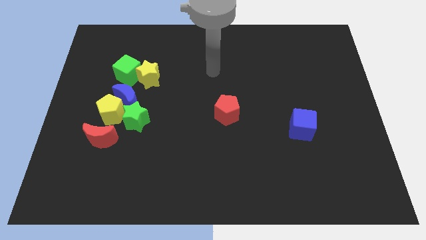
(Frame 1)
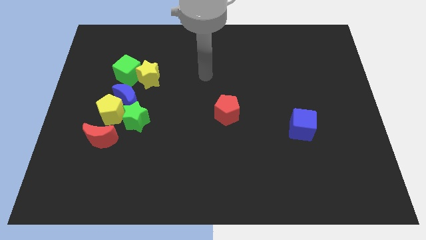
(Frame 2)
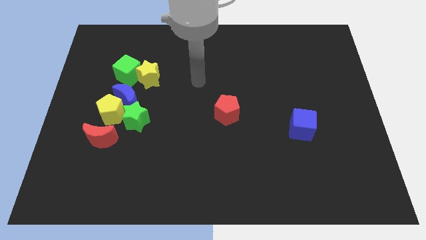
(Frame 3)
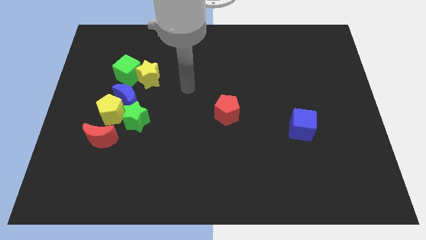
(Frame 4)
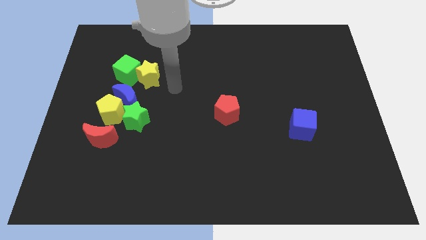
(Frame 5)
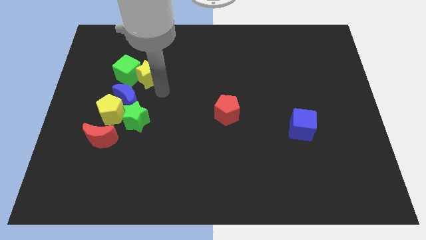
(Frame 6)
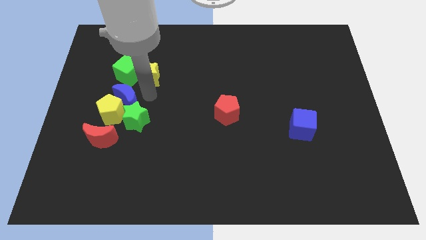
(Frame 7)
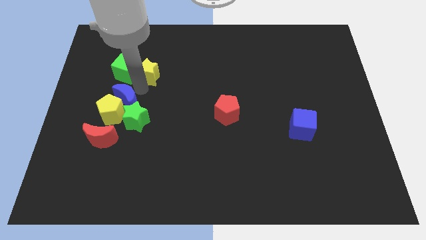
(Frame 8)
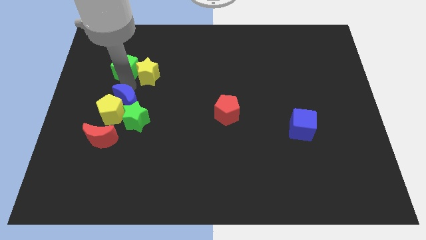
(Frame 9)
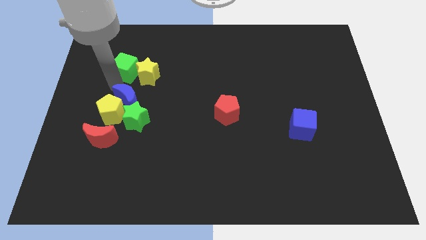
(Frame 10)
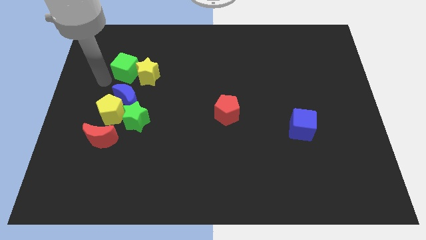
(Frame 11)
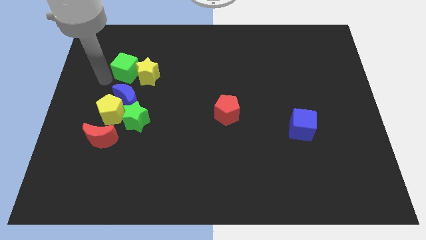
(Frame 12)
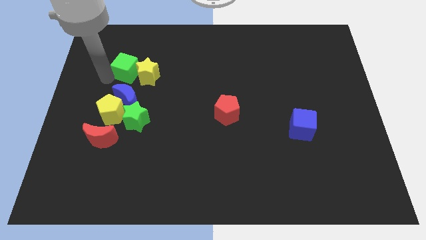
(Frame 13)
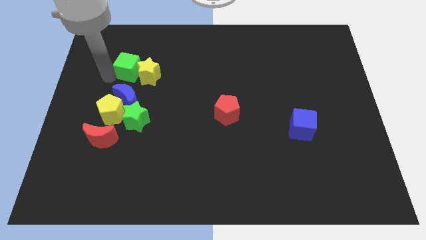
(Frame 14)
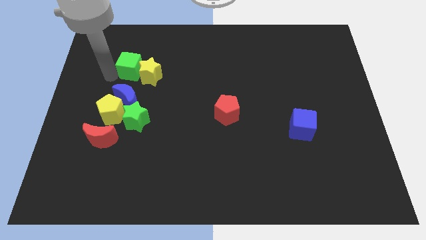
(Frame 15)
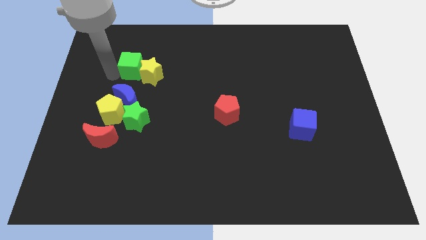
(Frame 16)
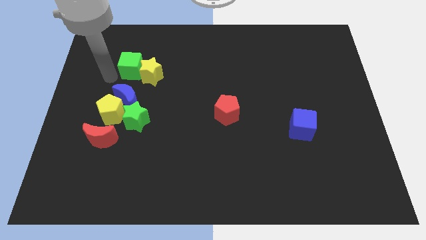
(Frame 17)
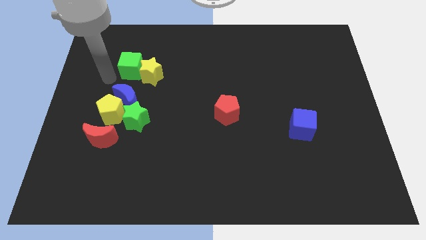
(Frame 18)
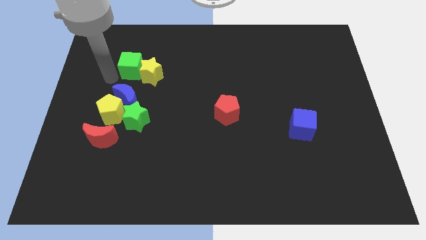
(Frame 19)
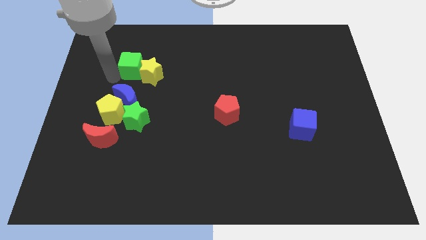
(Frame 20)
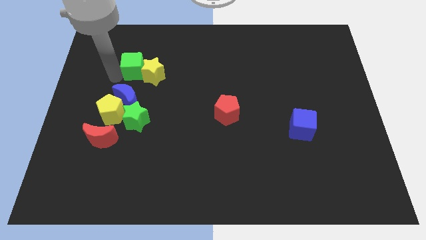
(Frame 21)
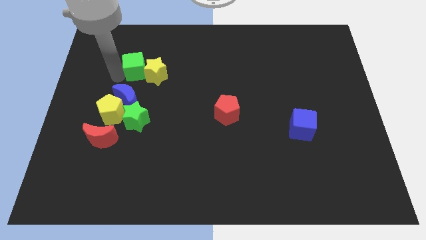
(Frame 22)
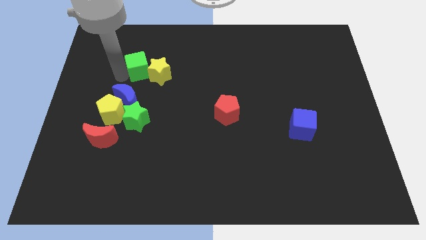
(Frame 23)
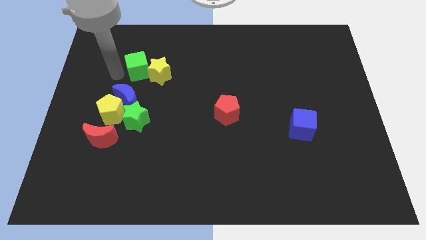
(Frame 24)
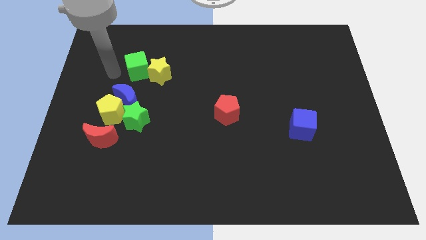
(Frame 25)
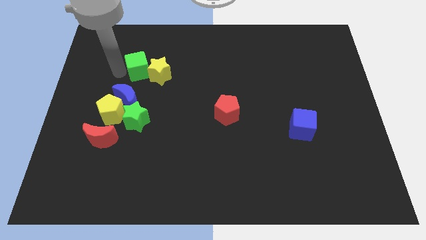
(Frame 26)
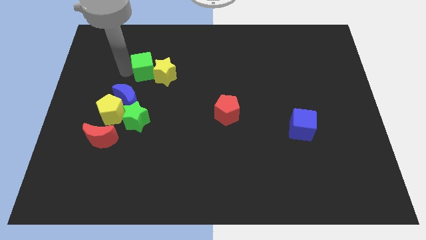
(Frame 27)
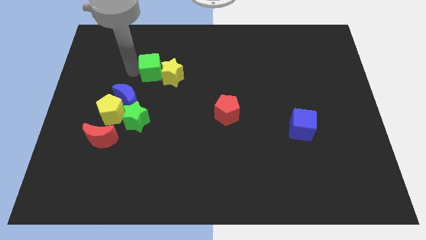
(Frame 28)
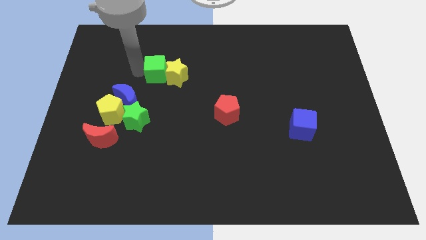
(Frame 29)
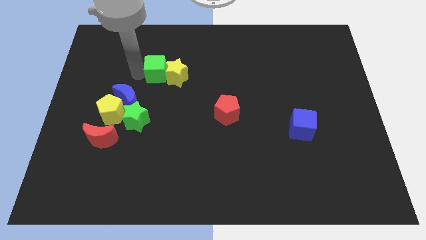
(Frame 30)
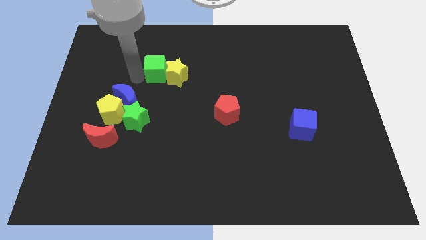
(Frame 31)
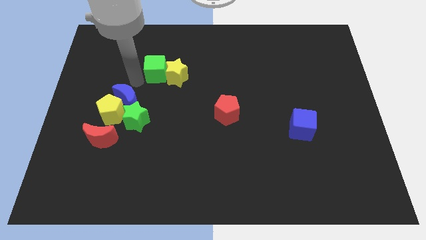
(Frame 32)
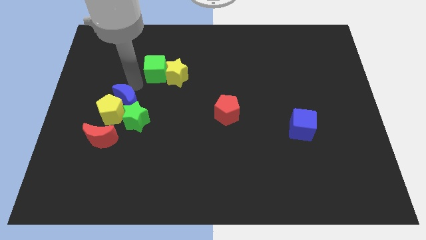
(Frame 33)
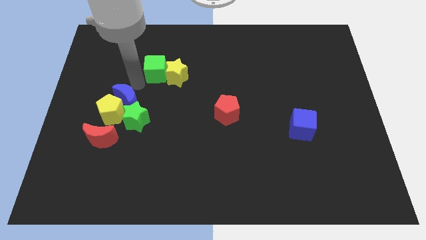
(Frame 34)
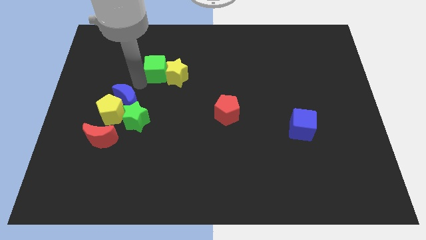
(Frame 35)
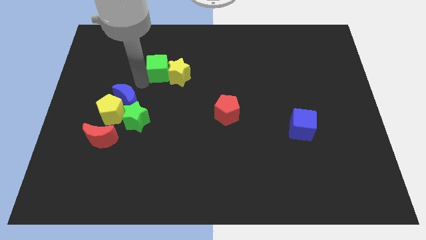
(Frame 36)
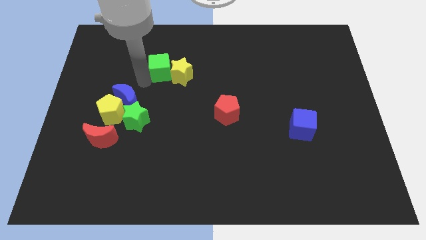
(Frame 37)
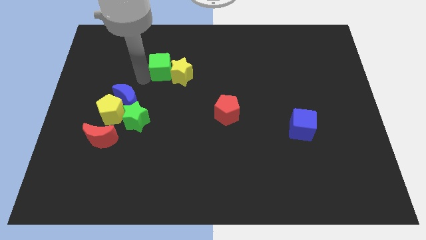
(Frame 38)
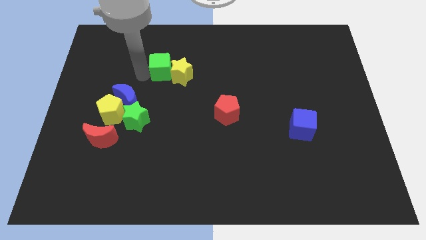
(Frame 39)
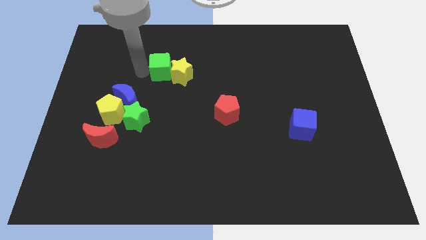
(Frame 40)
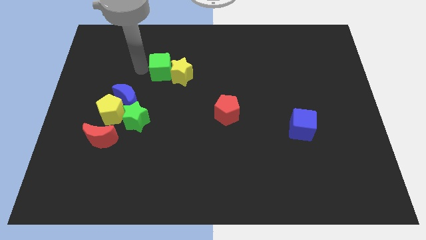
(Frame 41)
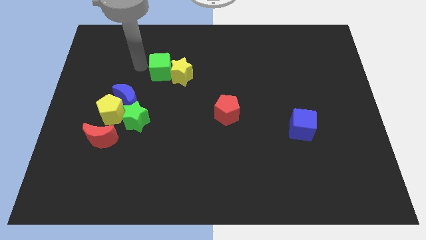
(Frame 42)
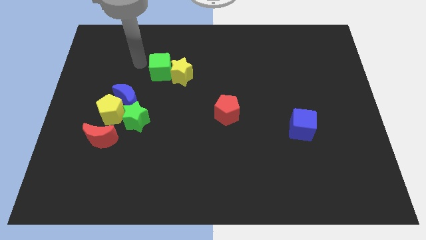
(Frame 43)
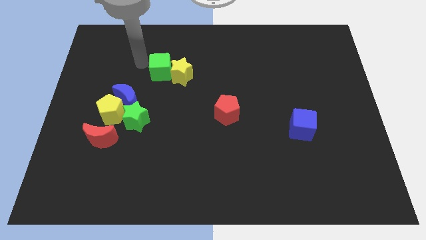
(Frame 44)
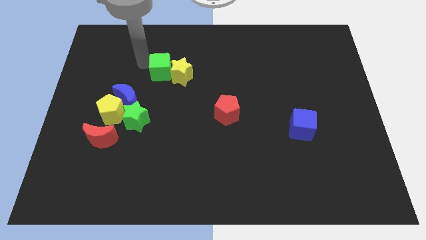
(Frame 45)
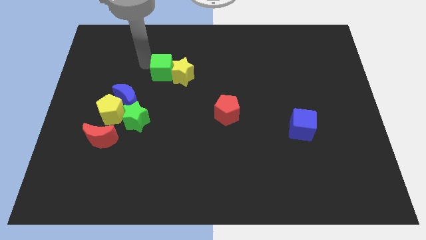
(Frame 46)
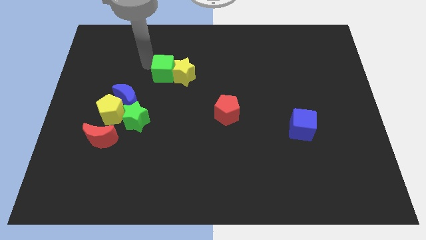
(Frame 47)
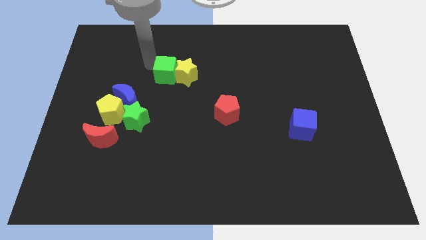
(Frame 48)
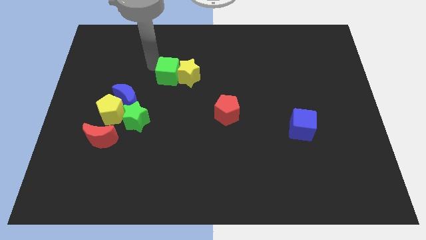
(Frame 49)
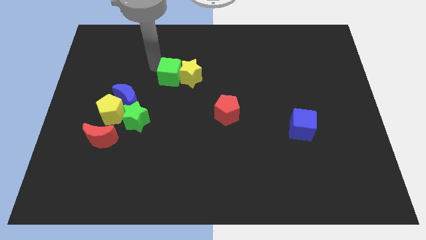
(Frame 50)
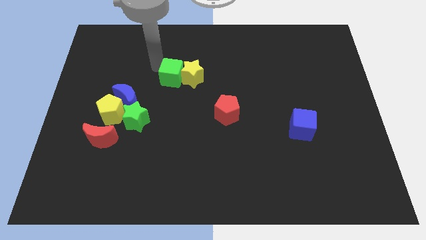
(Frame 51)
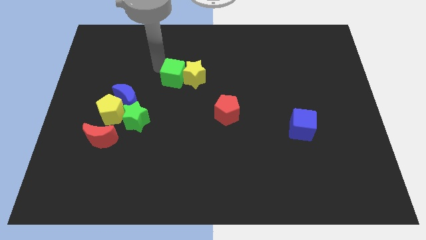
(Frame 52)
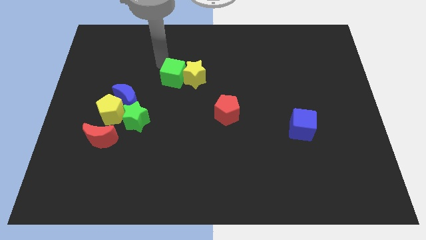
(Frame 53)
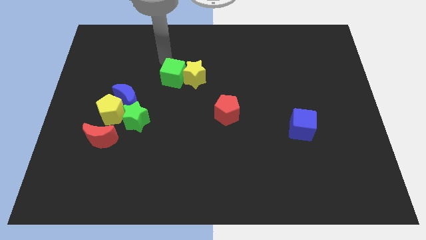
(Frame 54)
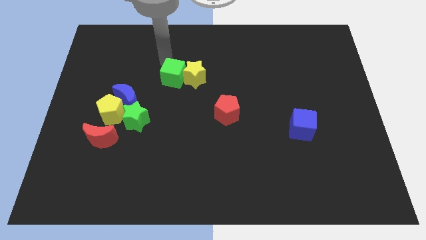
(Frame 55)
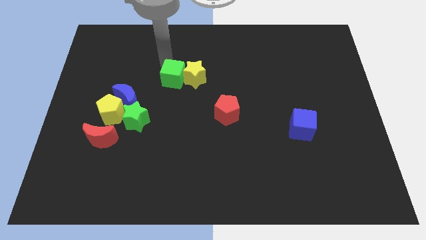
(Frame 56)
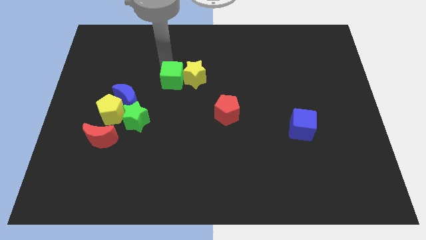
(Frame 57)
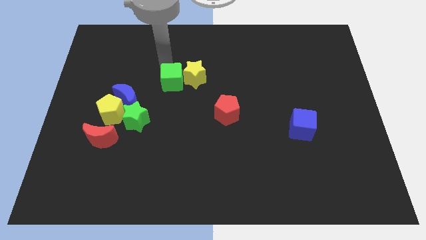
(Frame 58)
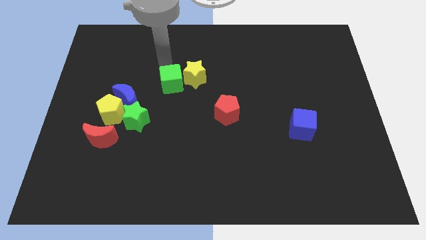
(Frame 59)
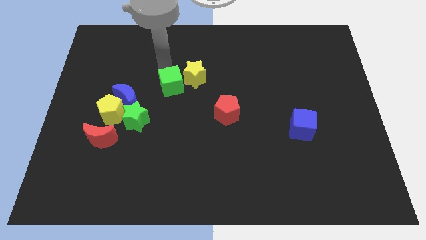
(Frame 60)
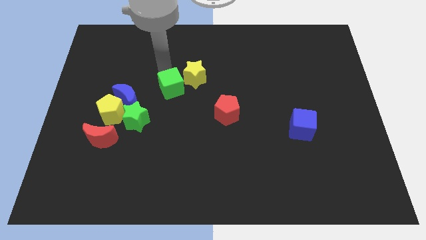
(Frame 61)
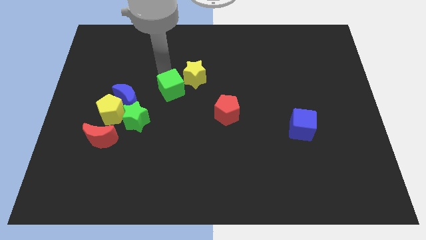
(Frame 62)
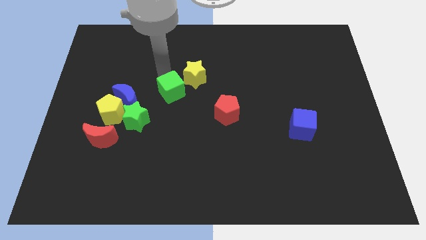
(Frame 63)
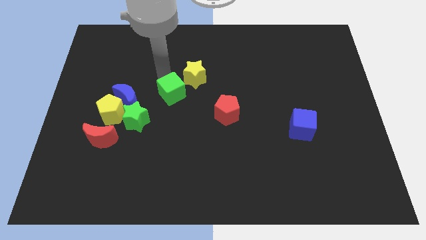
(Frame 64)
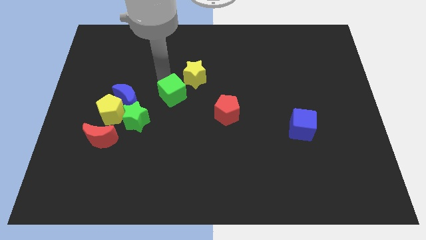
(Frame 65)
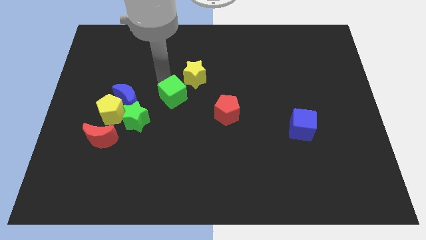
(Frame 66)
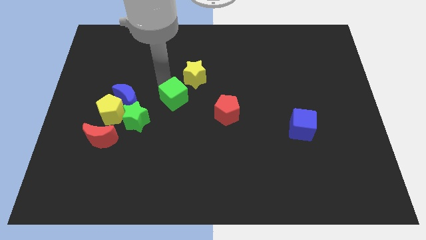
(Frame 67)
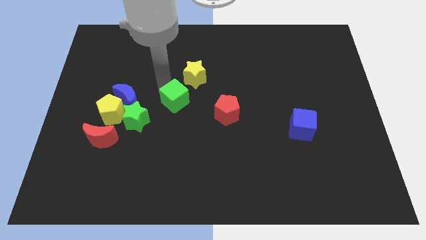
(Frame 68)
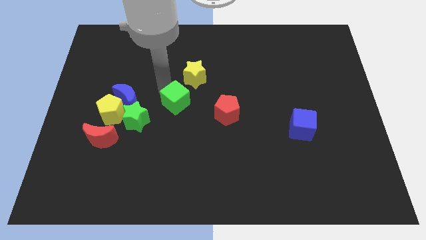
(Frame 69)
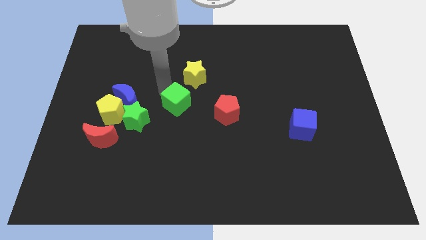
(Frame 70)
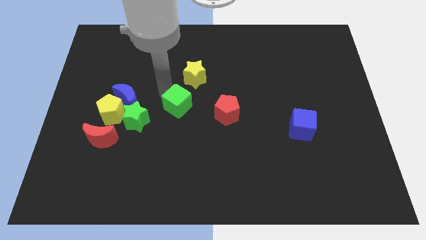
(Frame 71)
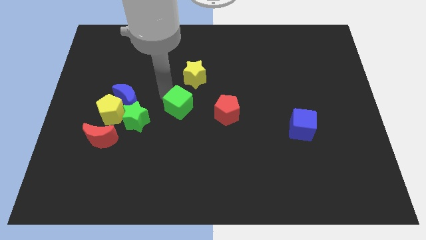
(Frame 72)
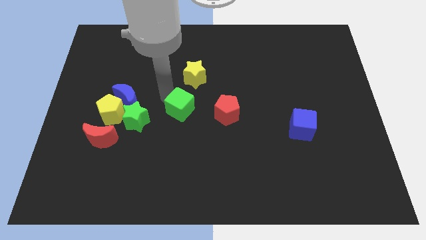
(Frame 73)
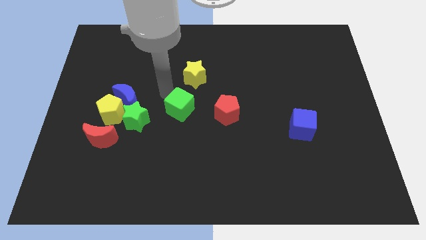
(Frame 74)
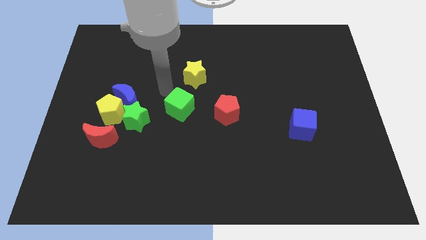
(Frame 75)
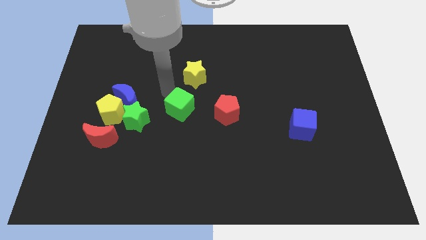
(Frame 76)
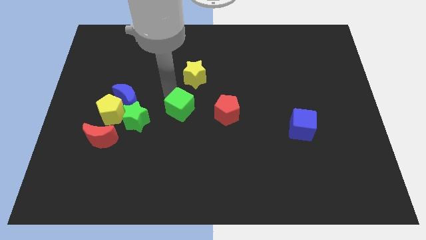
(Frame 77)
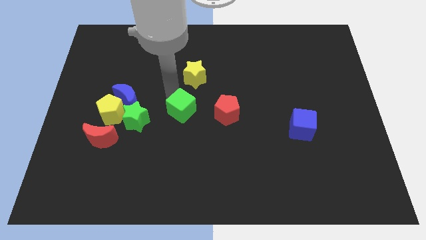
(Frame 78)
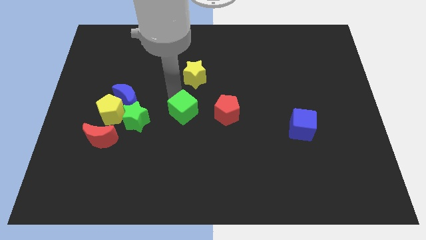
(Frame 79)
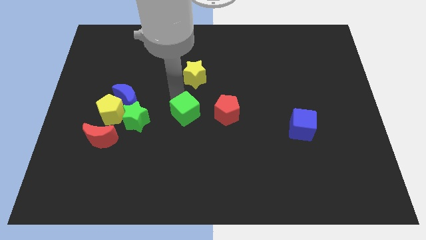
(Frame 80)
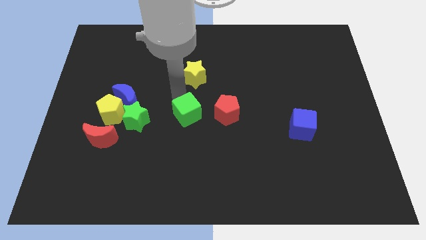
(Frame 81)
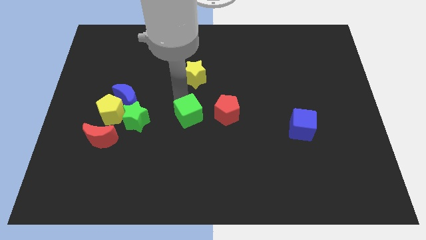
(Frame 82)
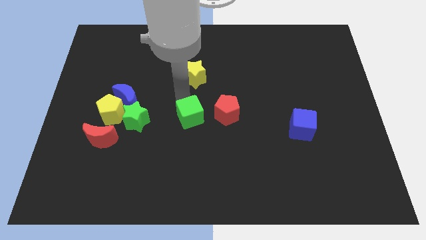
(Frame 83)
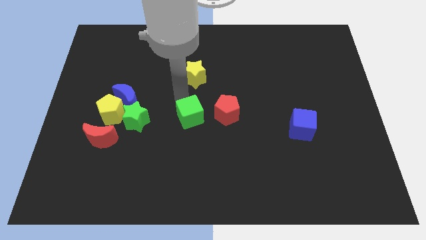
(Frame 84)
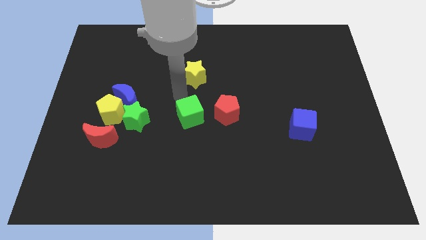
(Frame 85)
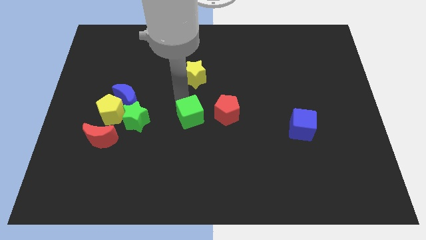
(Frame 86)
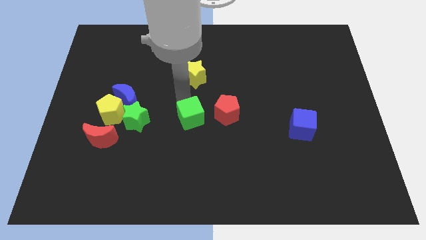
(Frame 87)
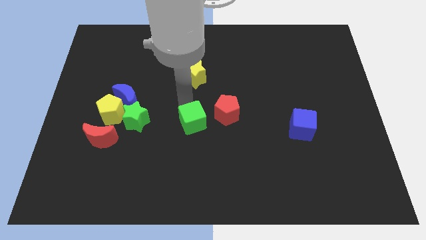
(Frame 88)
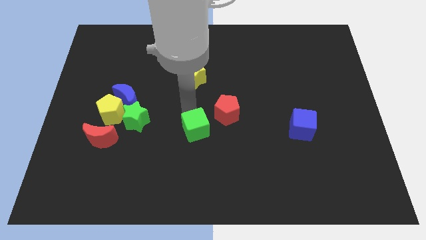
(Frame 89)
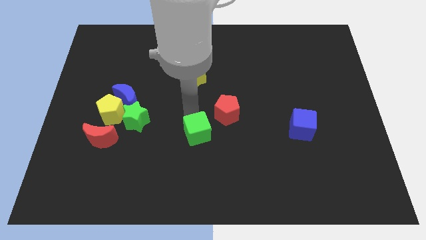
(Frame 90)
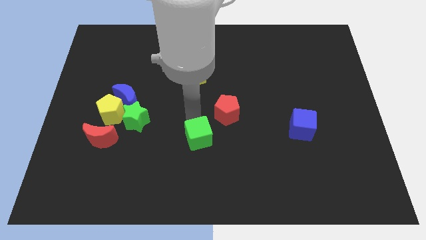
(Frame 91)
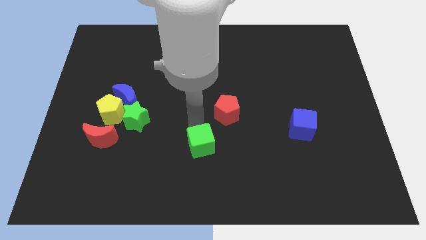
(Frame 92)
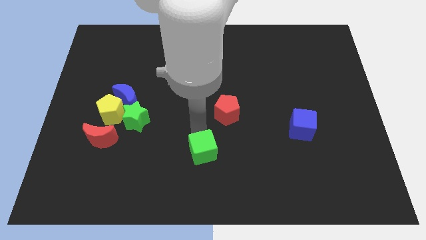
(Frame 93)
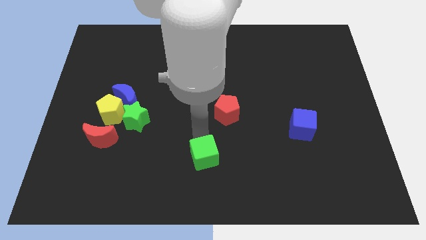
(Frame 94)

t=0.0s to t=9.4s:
slide the green cube to the bottom
